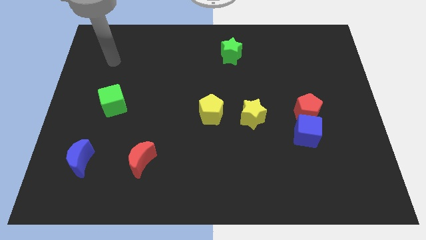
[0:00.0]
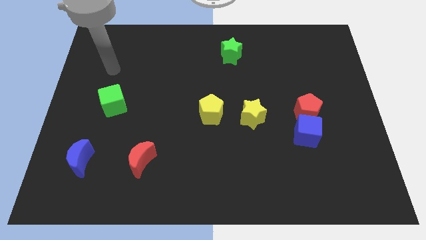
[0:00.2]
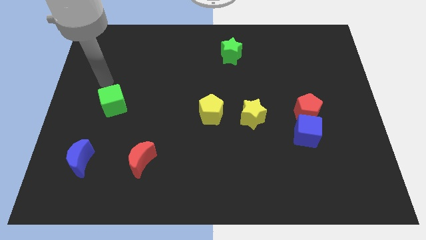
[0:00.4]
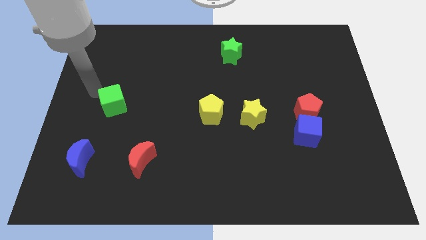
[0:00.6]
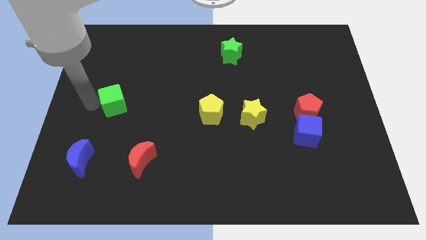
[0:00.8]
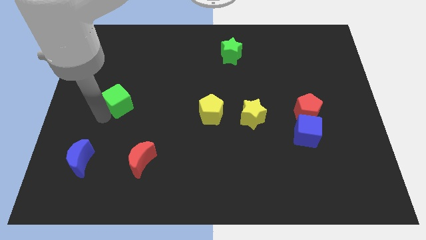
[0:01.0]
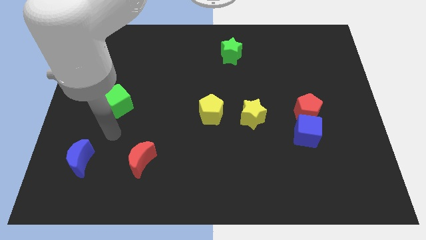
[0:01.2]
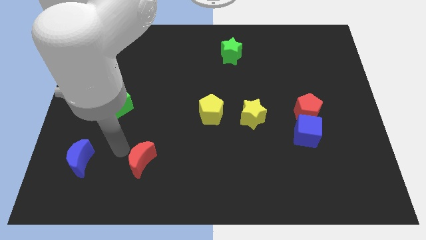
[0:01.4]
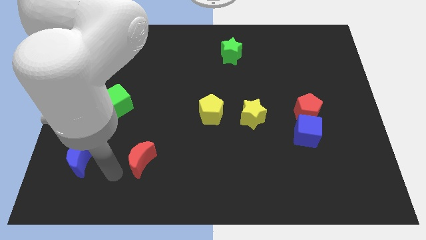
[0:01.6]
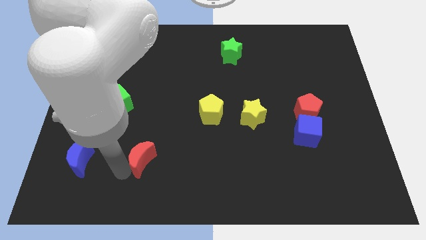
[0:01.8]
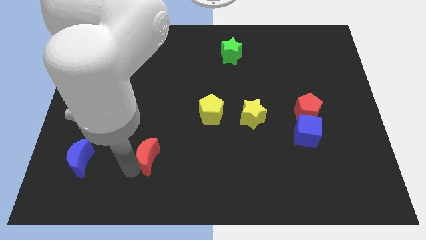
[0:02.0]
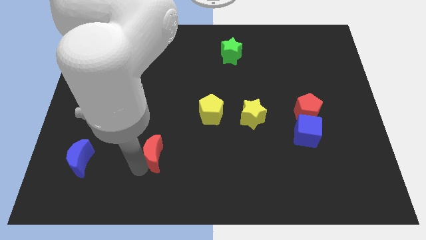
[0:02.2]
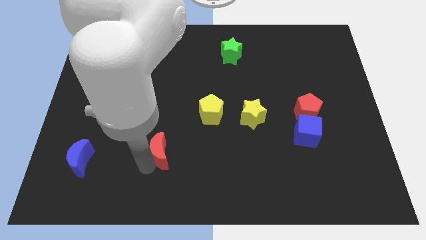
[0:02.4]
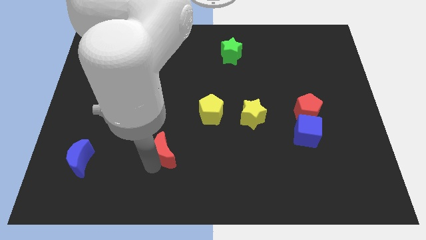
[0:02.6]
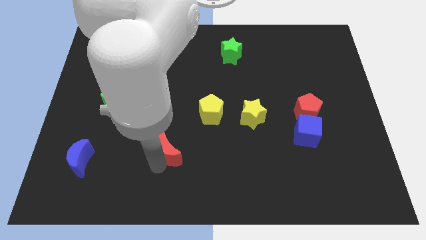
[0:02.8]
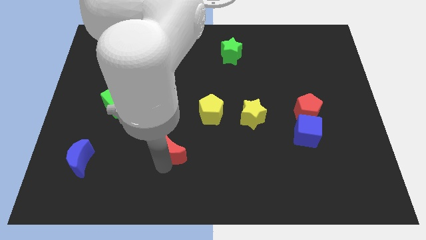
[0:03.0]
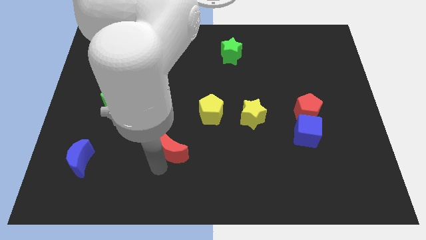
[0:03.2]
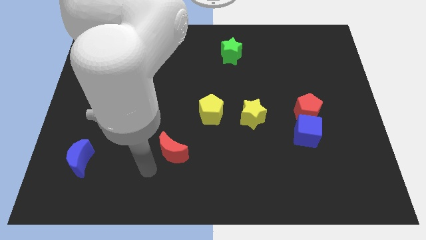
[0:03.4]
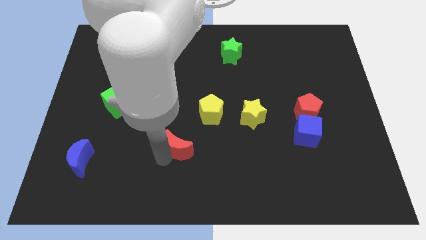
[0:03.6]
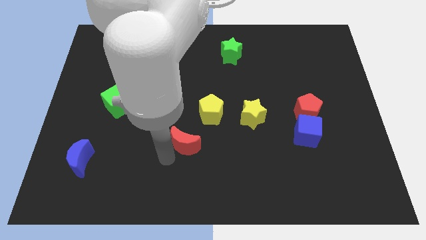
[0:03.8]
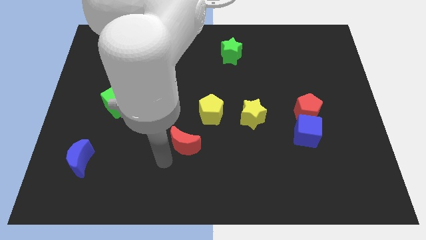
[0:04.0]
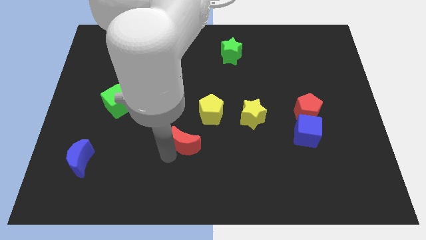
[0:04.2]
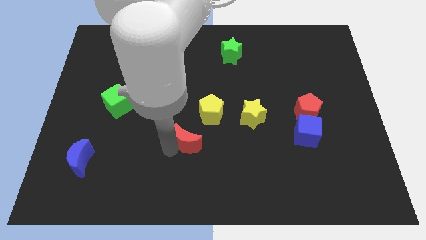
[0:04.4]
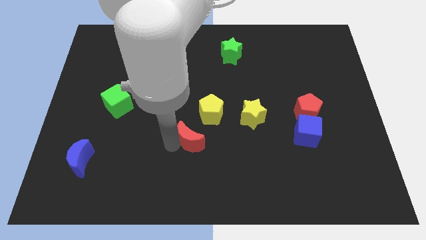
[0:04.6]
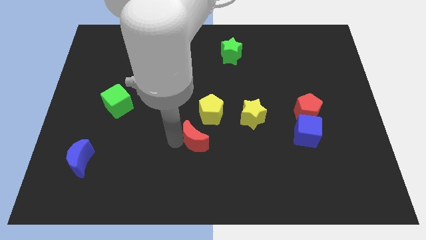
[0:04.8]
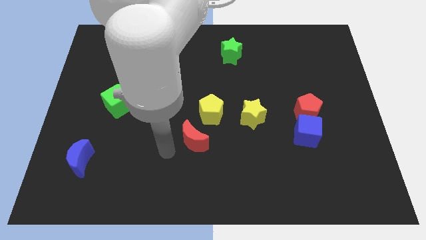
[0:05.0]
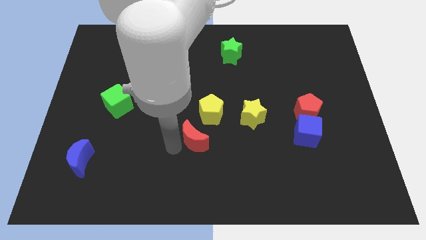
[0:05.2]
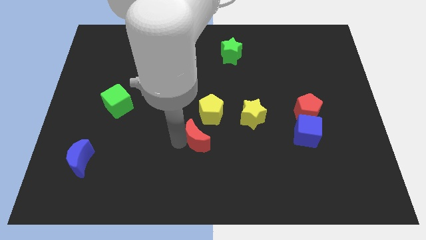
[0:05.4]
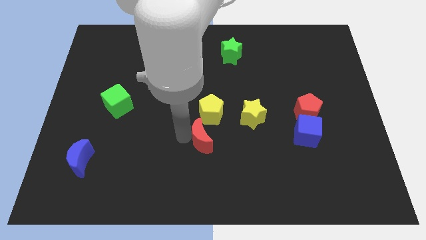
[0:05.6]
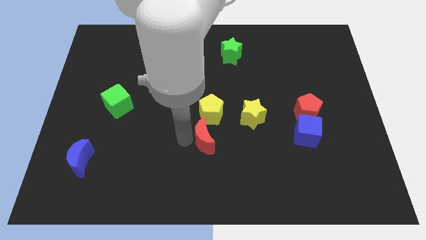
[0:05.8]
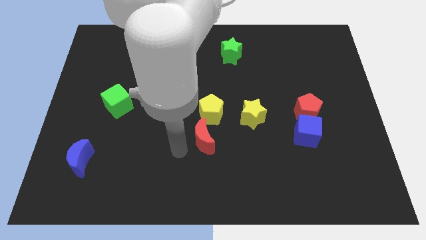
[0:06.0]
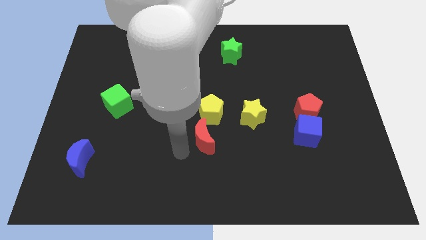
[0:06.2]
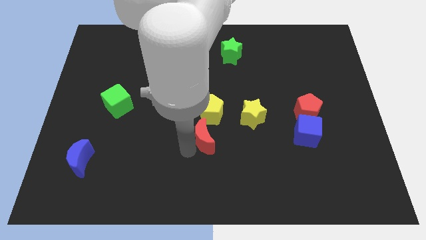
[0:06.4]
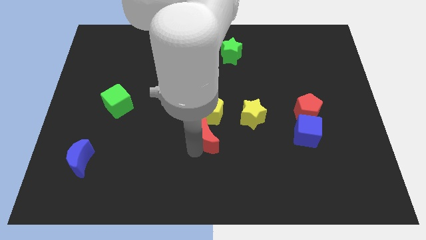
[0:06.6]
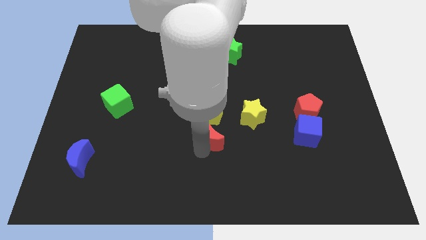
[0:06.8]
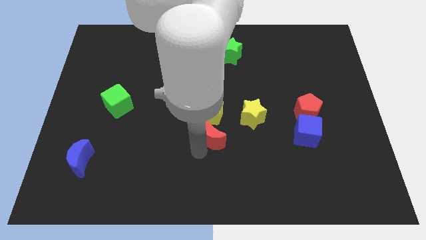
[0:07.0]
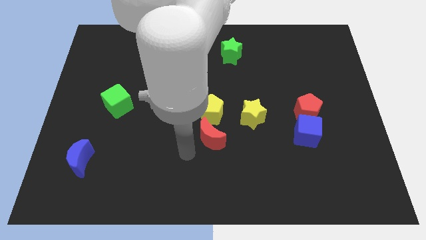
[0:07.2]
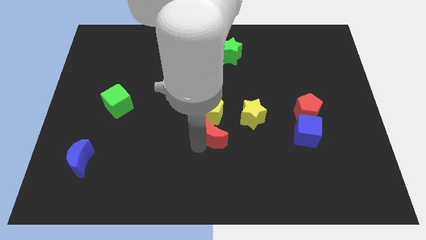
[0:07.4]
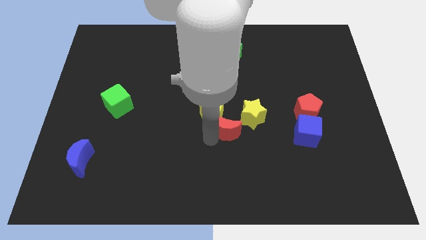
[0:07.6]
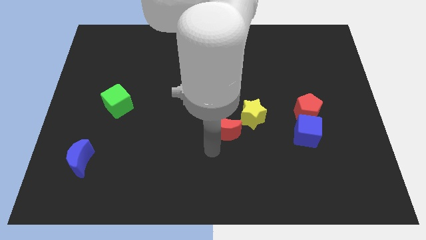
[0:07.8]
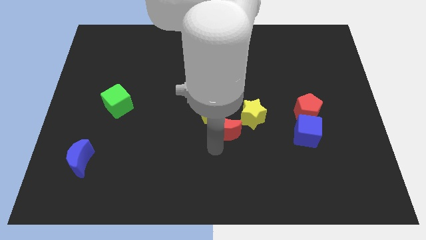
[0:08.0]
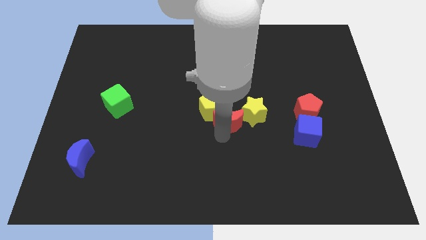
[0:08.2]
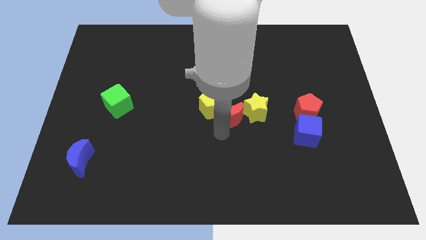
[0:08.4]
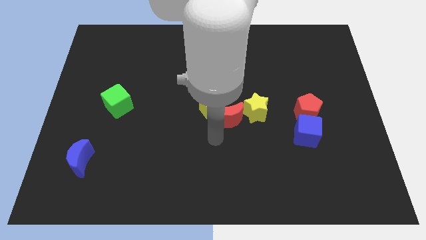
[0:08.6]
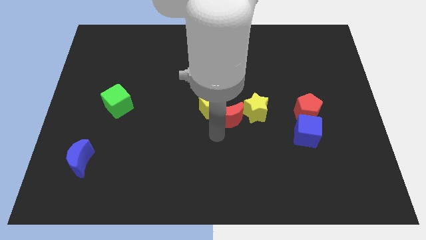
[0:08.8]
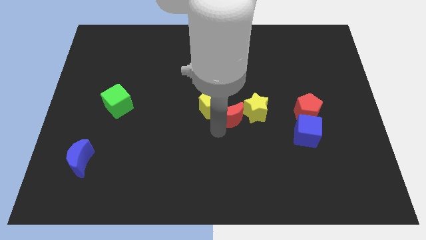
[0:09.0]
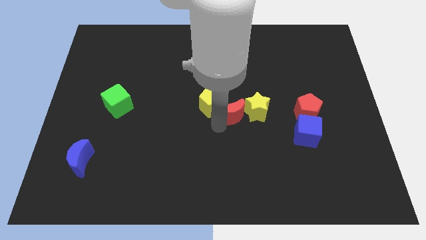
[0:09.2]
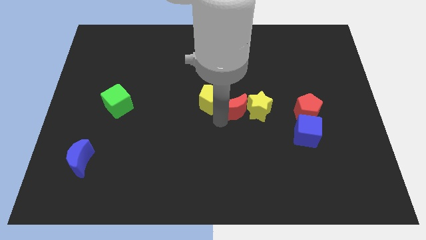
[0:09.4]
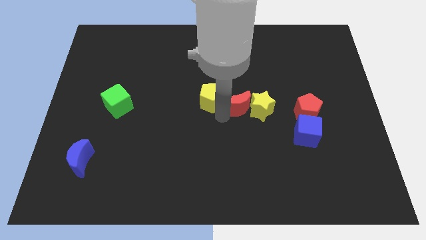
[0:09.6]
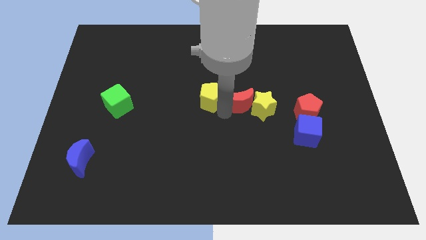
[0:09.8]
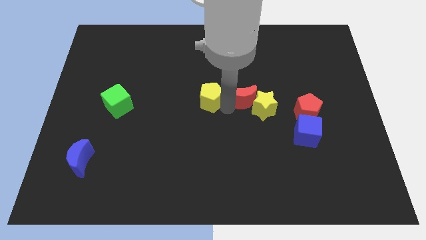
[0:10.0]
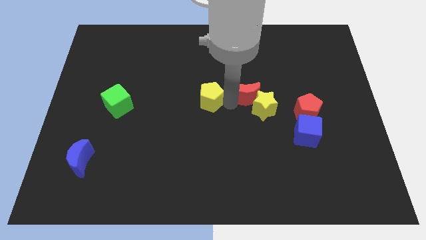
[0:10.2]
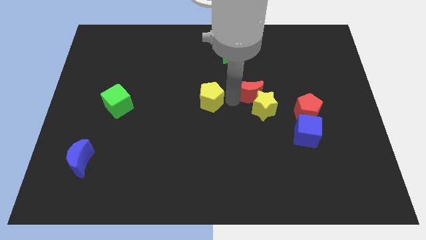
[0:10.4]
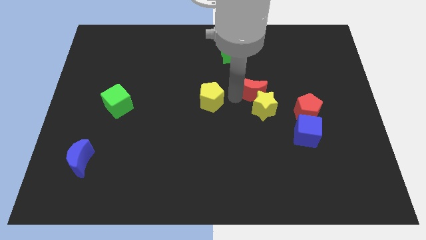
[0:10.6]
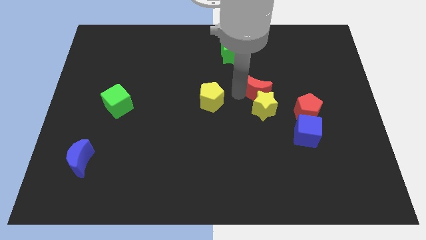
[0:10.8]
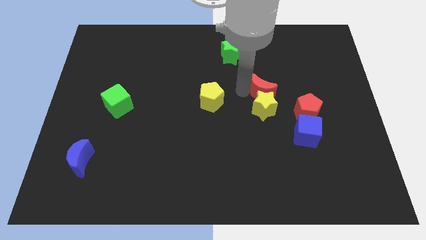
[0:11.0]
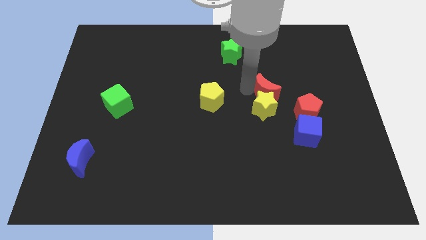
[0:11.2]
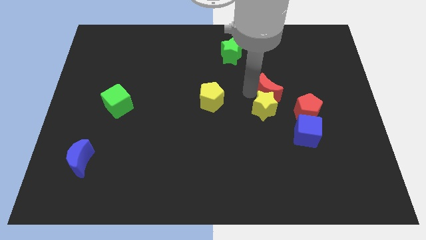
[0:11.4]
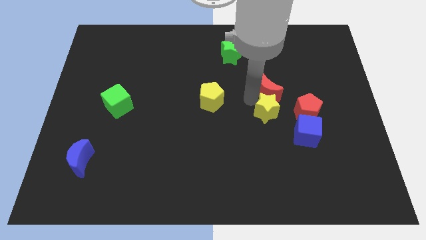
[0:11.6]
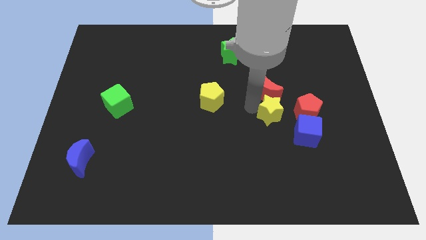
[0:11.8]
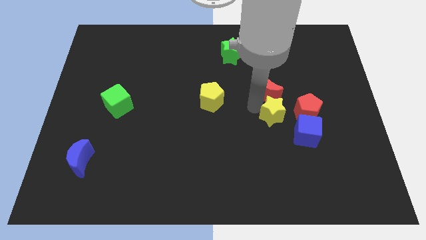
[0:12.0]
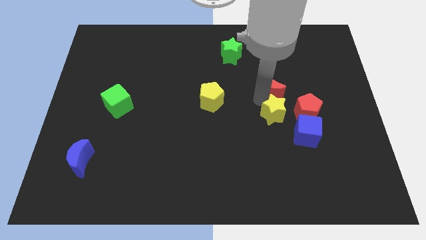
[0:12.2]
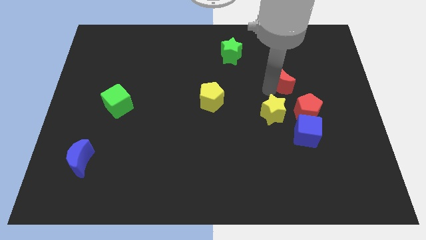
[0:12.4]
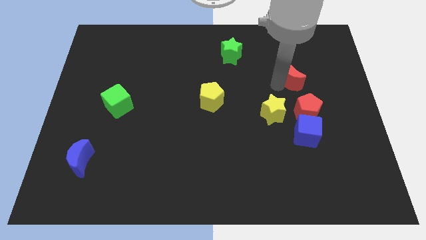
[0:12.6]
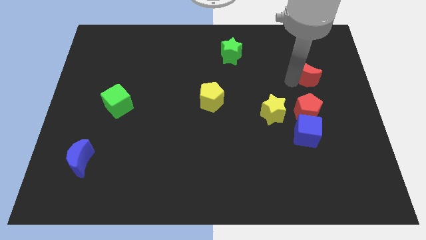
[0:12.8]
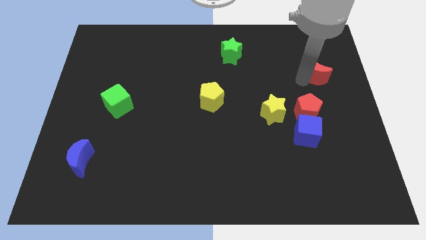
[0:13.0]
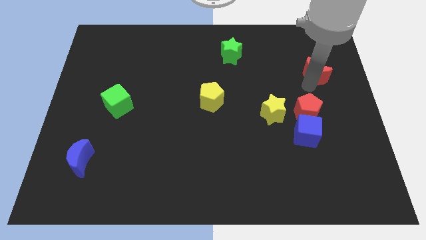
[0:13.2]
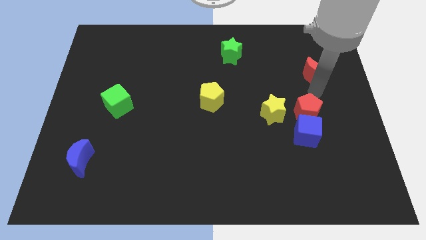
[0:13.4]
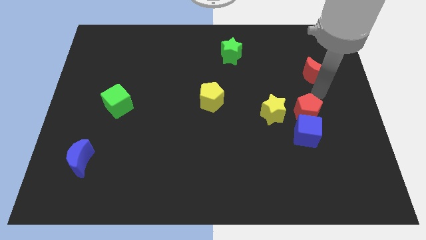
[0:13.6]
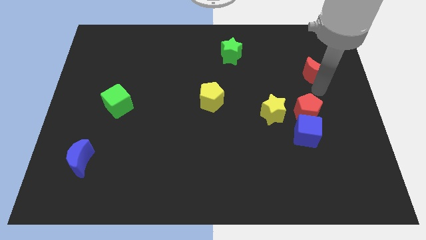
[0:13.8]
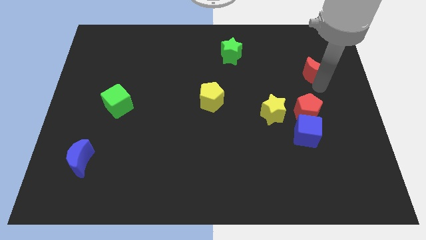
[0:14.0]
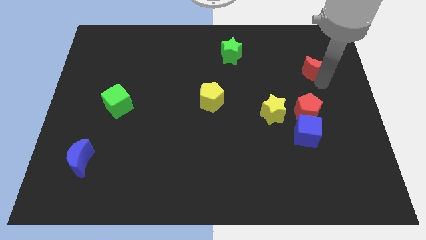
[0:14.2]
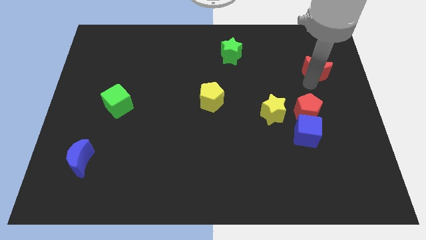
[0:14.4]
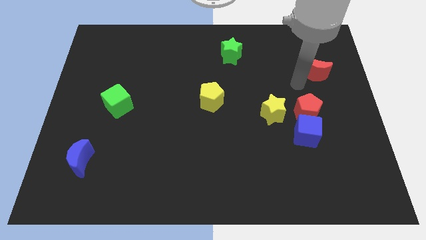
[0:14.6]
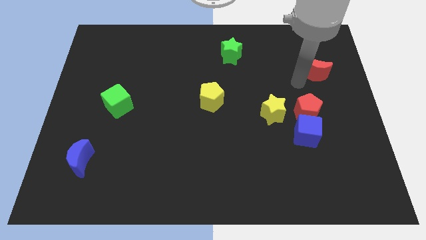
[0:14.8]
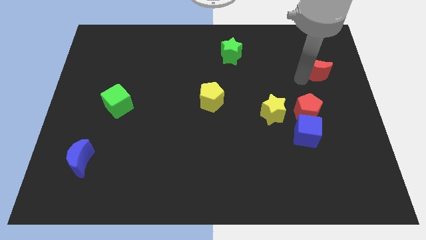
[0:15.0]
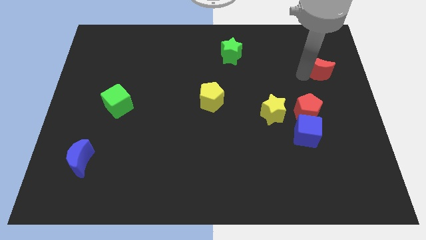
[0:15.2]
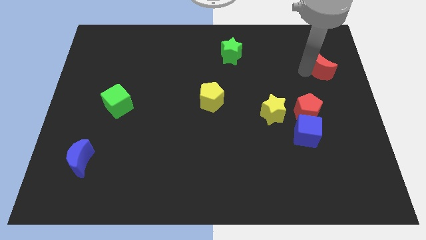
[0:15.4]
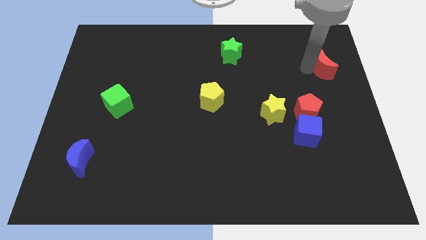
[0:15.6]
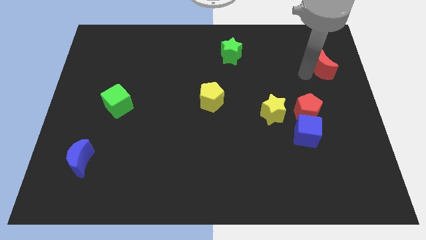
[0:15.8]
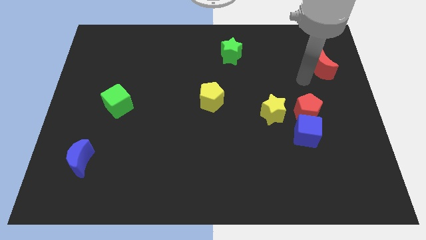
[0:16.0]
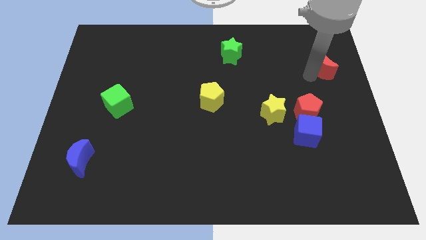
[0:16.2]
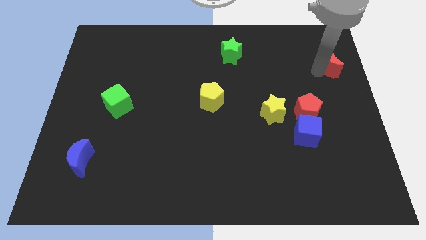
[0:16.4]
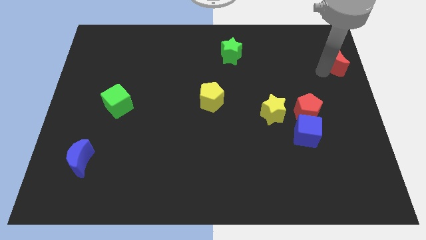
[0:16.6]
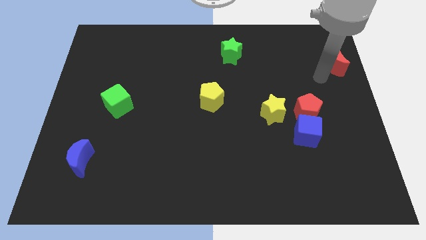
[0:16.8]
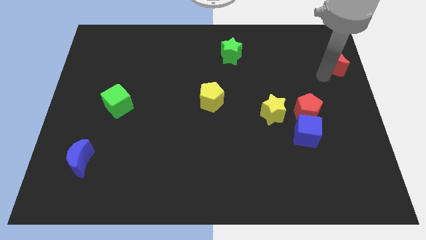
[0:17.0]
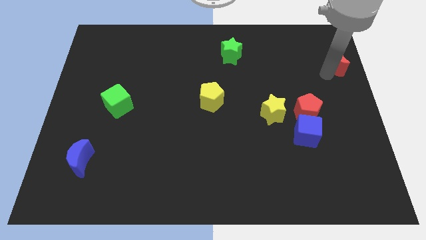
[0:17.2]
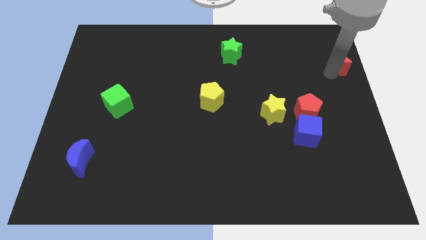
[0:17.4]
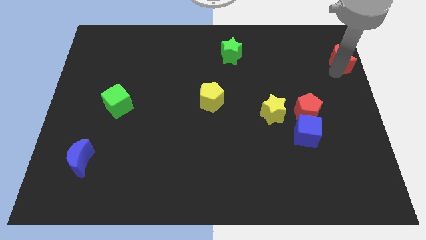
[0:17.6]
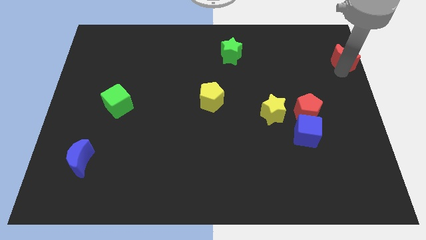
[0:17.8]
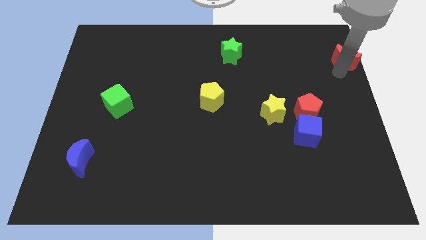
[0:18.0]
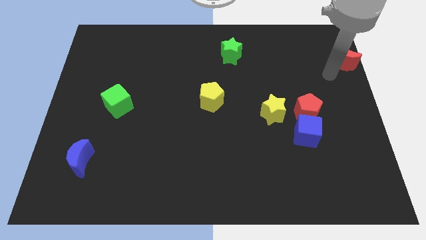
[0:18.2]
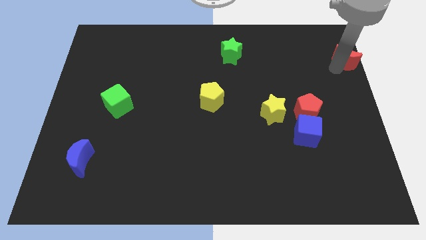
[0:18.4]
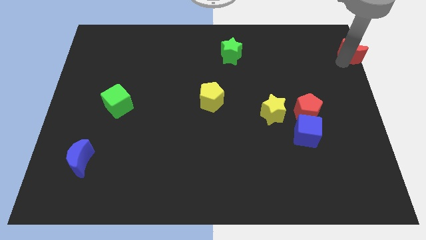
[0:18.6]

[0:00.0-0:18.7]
push the red moon to the top right
